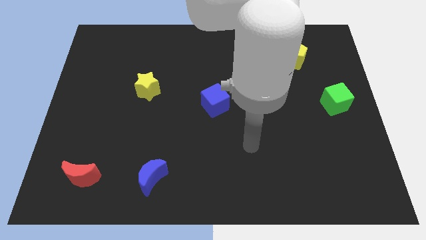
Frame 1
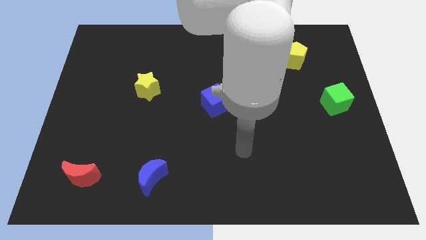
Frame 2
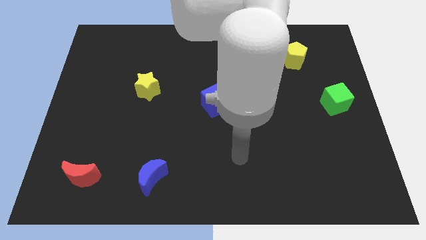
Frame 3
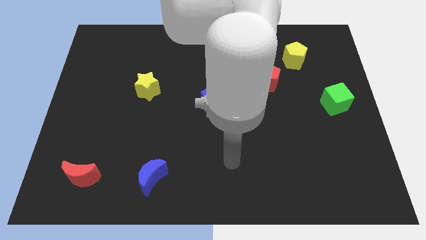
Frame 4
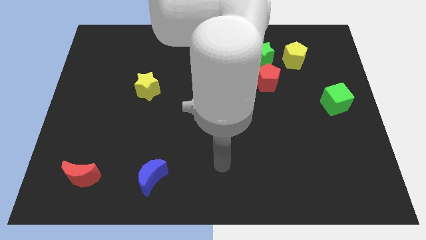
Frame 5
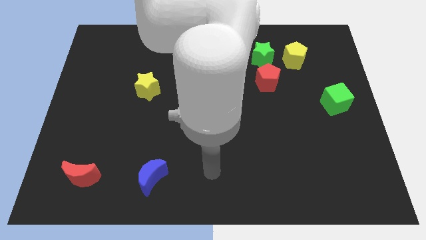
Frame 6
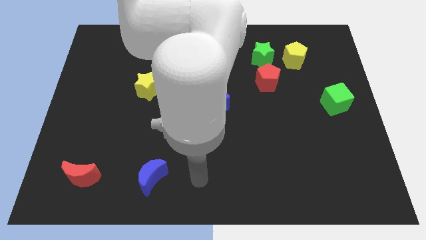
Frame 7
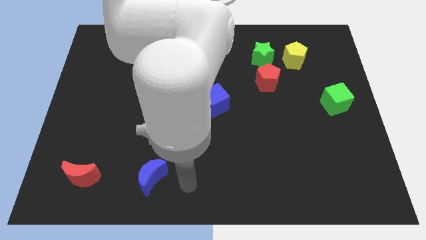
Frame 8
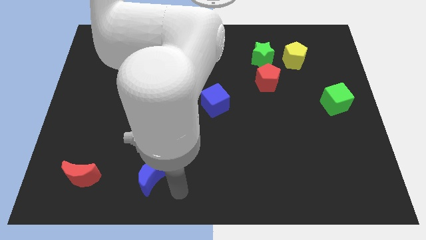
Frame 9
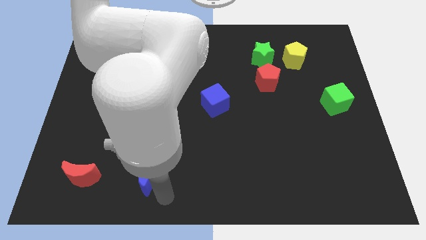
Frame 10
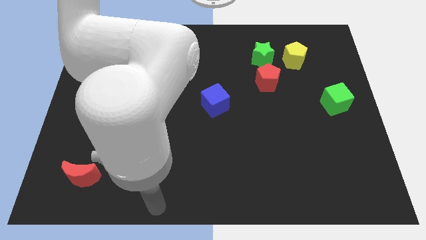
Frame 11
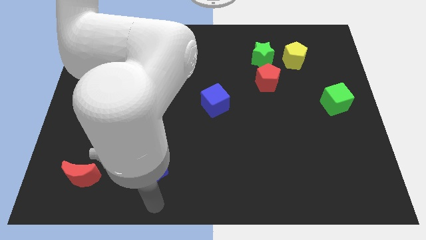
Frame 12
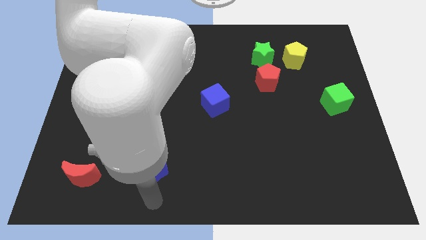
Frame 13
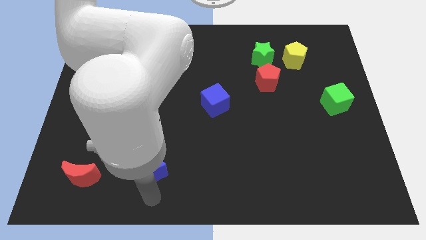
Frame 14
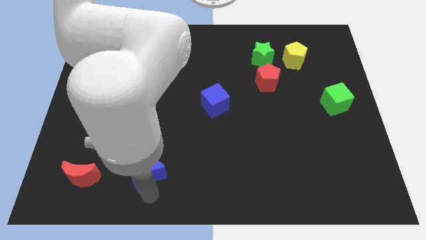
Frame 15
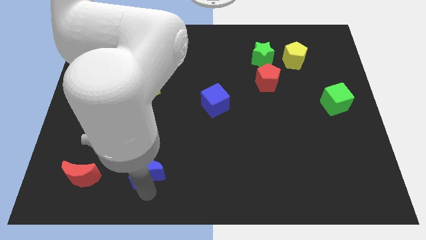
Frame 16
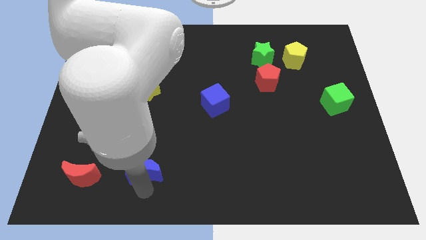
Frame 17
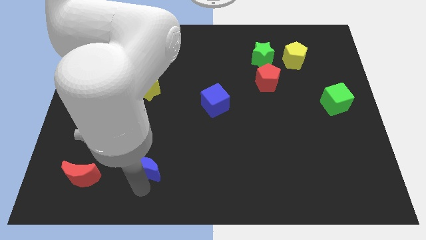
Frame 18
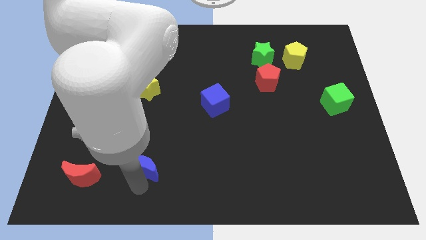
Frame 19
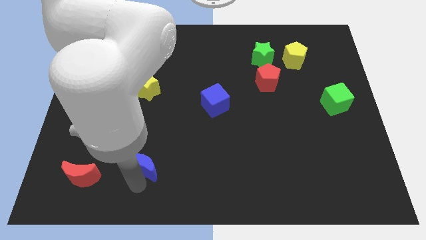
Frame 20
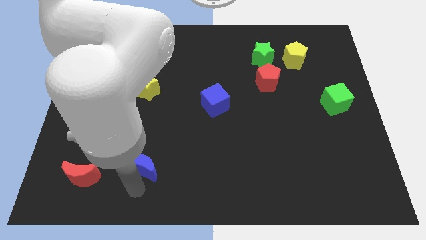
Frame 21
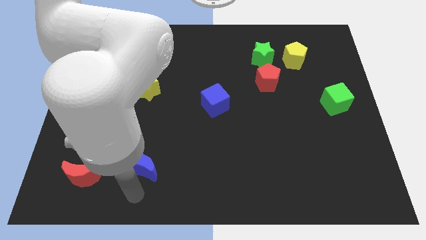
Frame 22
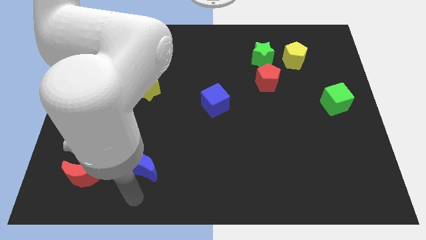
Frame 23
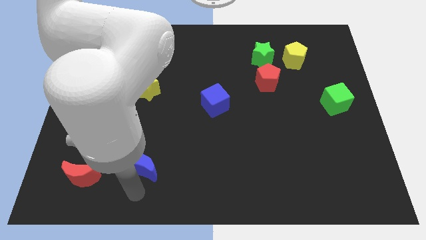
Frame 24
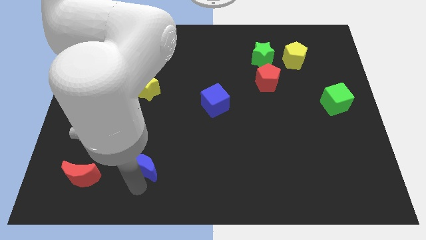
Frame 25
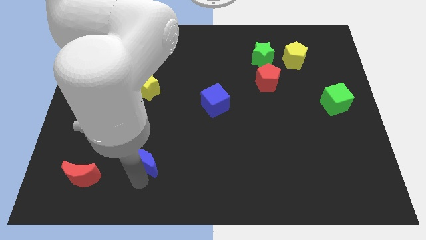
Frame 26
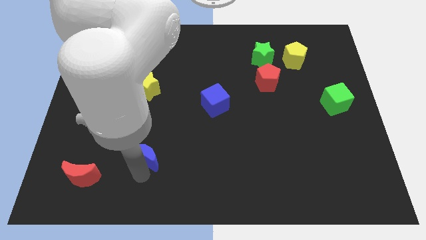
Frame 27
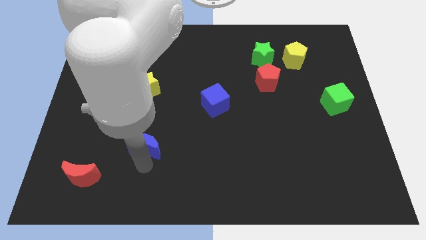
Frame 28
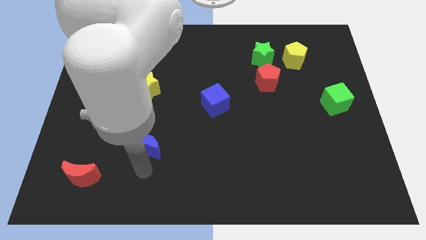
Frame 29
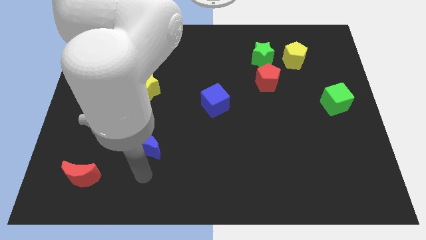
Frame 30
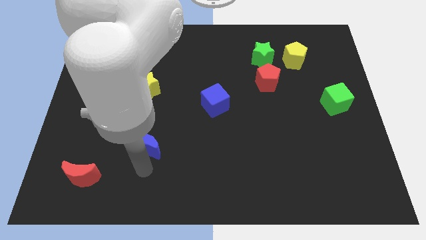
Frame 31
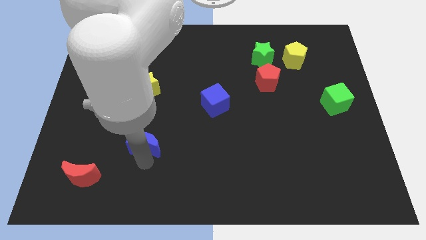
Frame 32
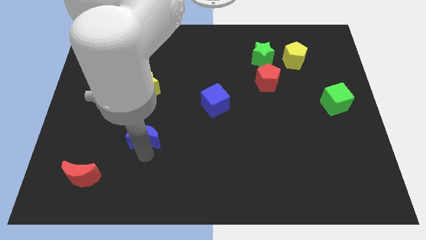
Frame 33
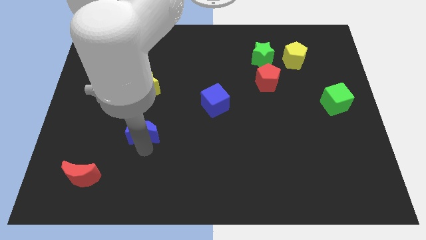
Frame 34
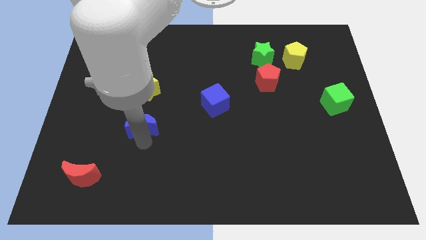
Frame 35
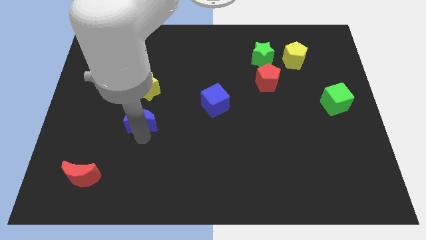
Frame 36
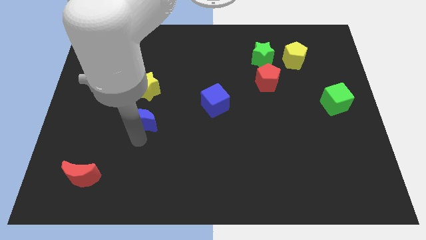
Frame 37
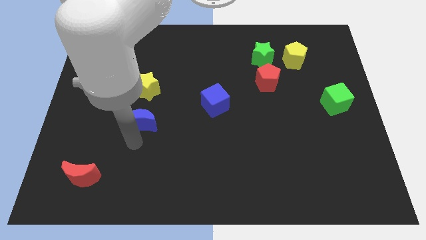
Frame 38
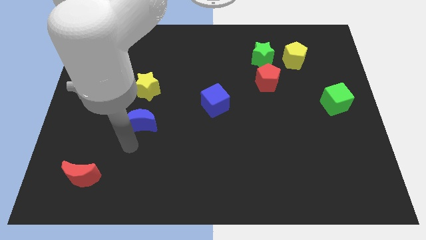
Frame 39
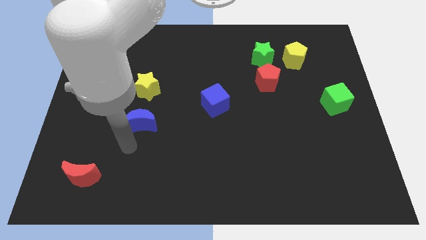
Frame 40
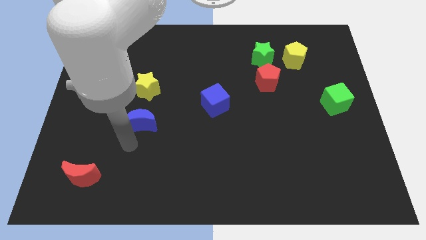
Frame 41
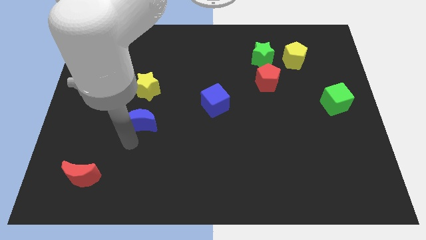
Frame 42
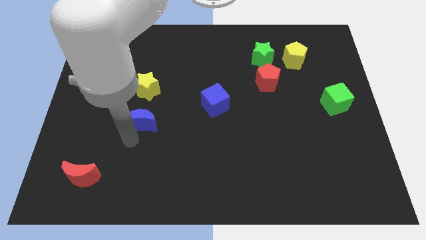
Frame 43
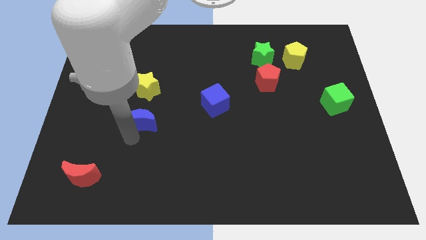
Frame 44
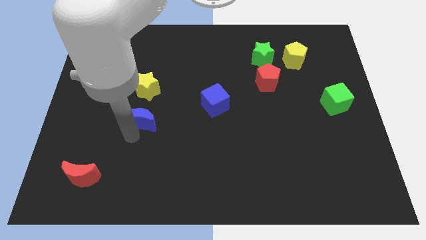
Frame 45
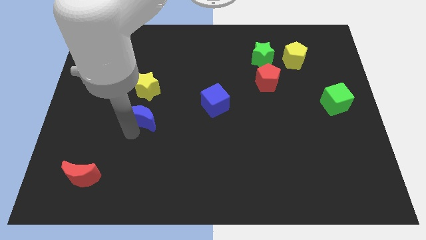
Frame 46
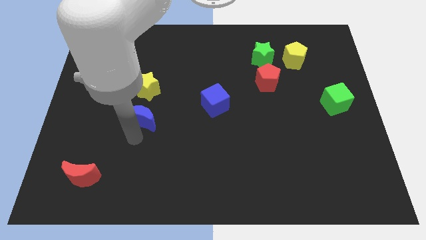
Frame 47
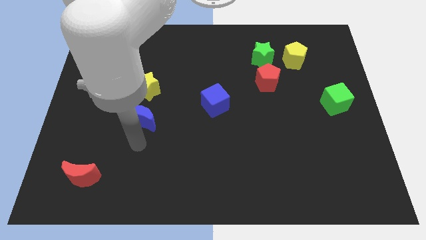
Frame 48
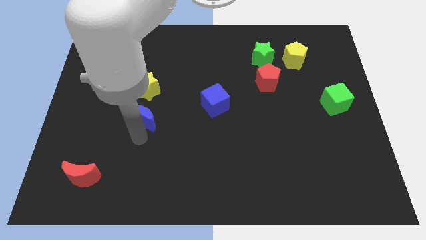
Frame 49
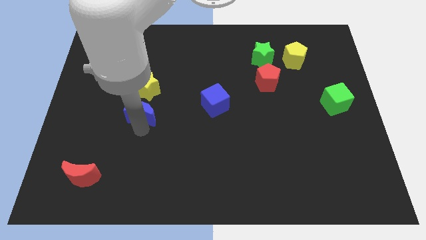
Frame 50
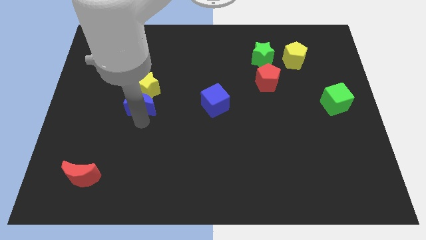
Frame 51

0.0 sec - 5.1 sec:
move the blue moon next to the yellow star

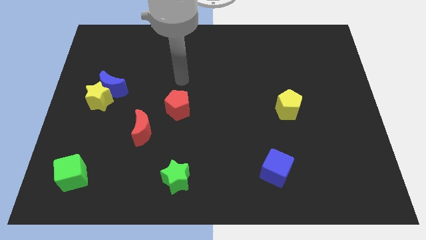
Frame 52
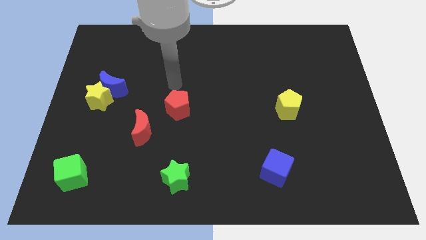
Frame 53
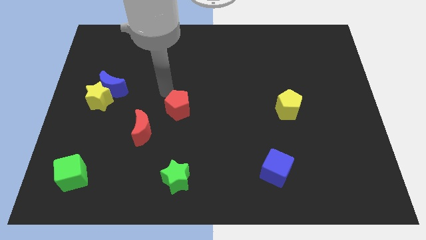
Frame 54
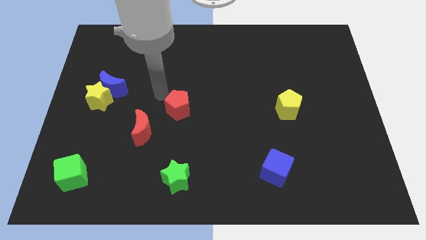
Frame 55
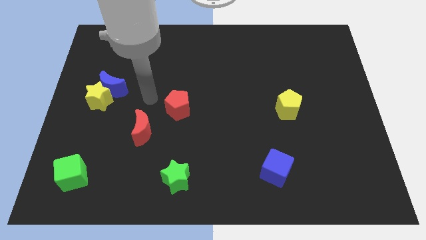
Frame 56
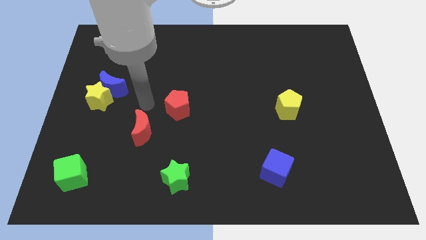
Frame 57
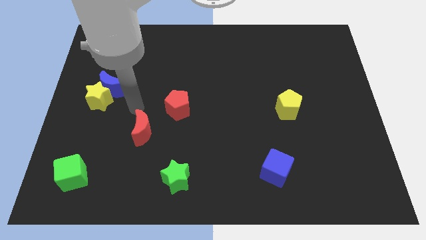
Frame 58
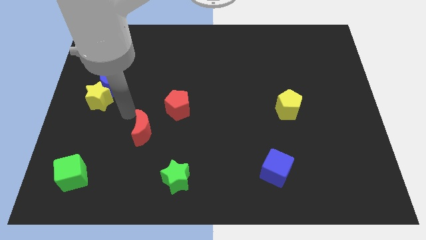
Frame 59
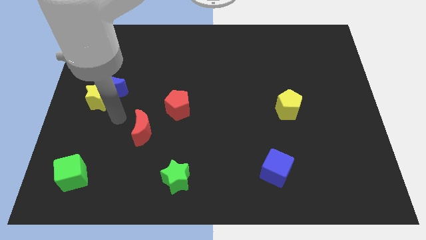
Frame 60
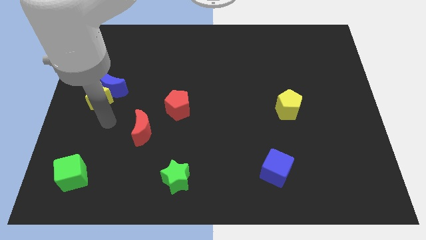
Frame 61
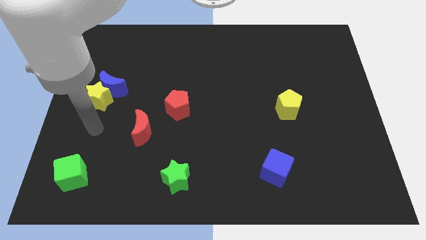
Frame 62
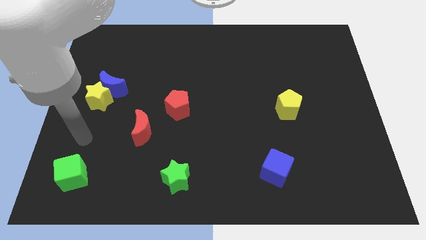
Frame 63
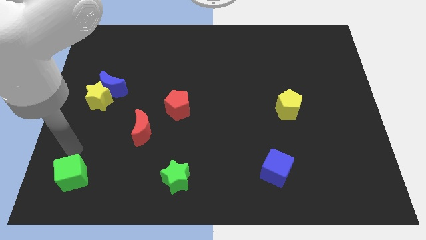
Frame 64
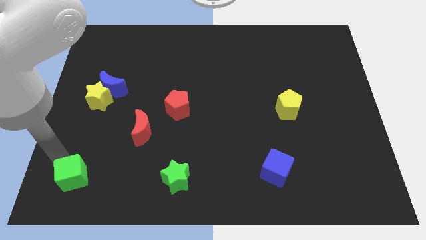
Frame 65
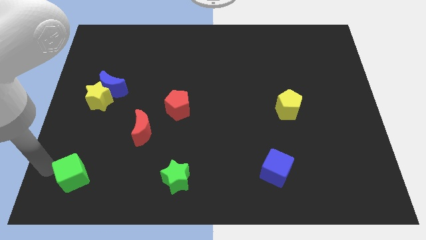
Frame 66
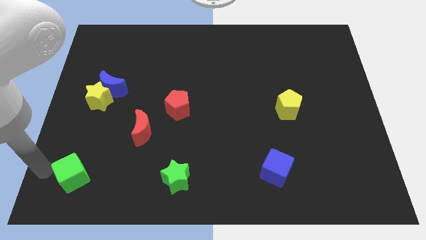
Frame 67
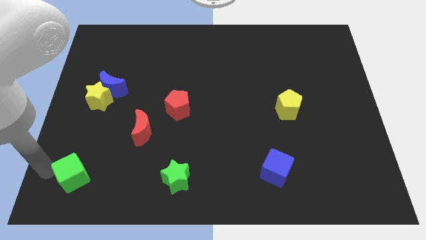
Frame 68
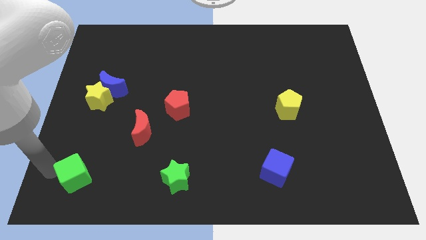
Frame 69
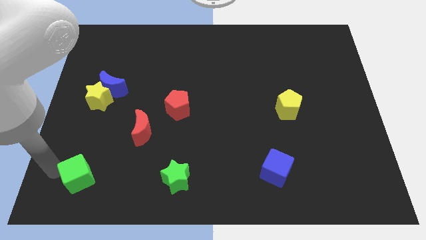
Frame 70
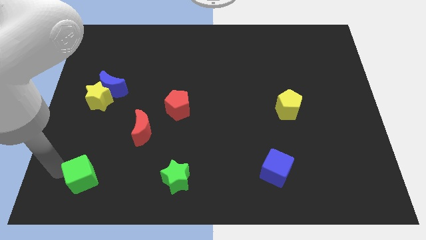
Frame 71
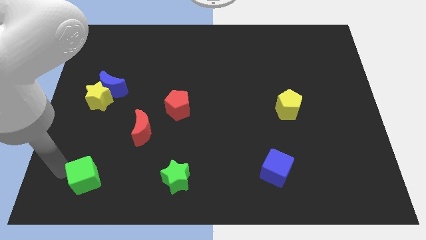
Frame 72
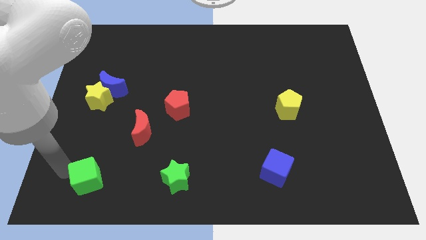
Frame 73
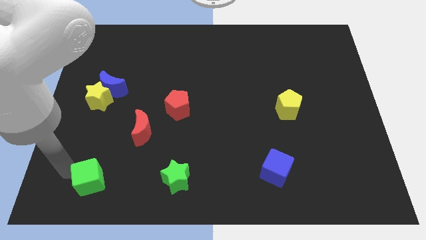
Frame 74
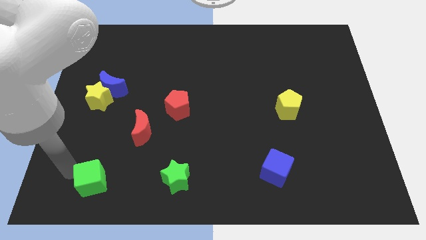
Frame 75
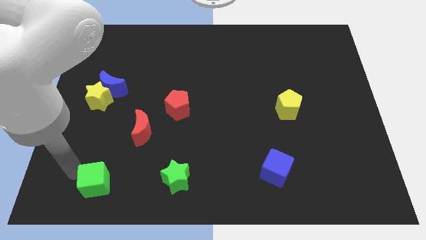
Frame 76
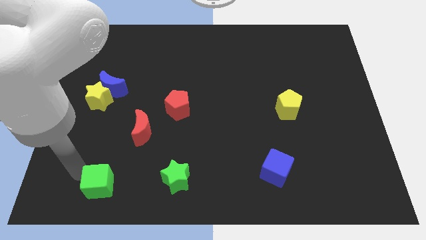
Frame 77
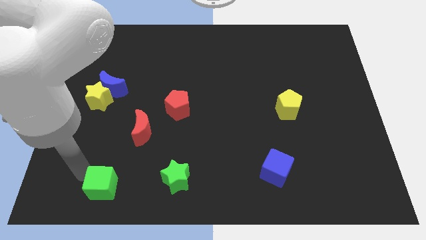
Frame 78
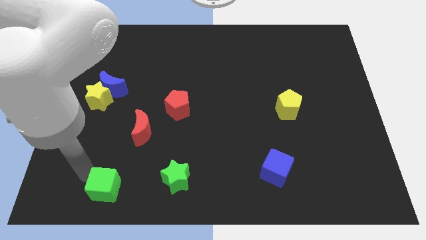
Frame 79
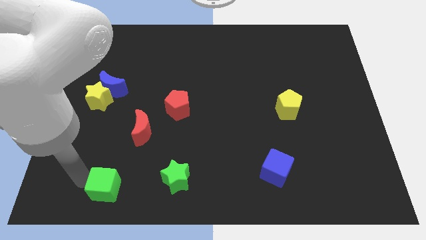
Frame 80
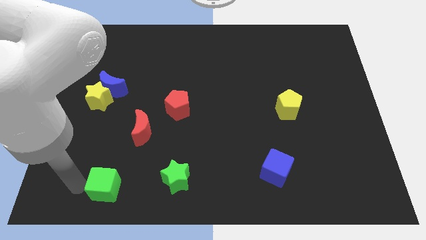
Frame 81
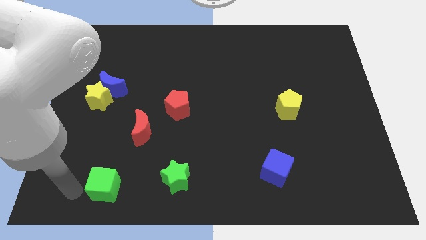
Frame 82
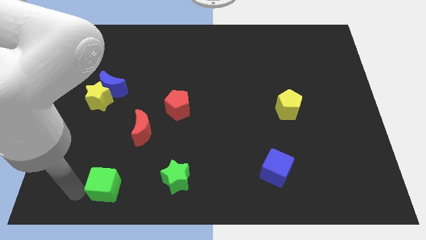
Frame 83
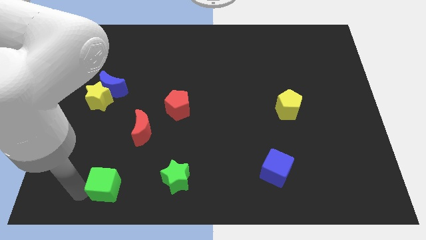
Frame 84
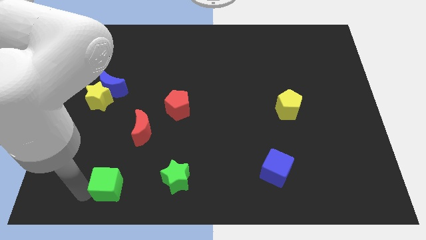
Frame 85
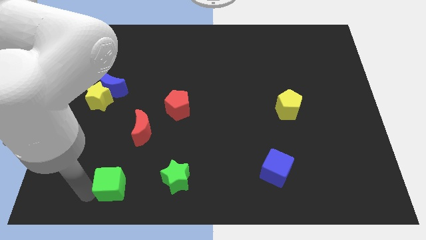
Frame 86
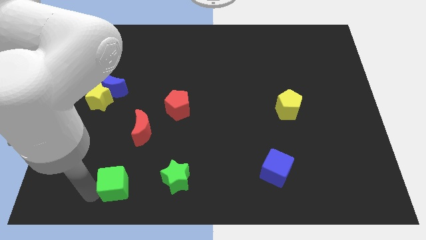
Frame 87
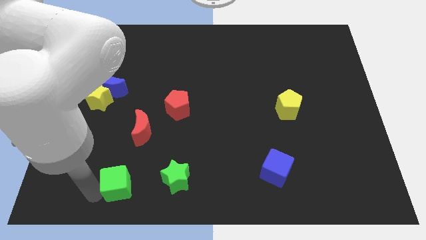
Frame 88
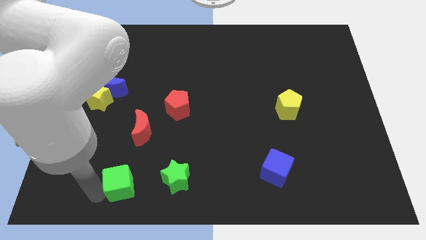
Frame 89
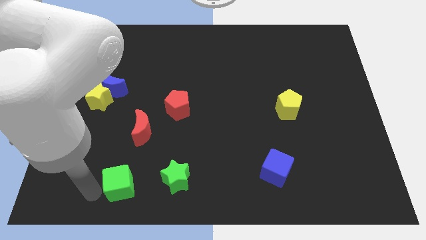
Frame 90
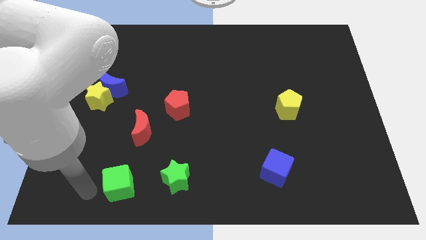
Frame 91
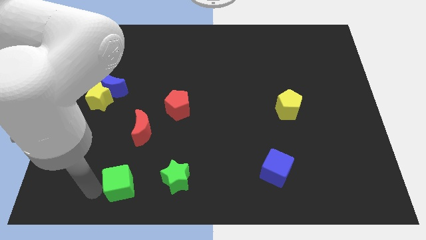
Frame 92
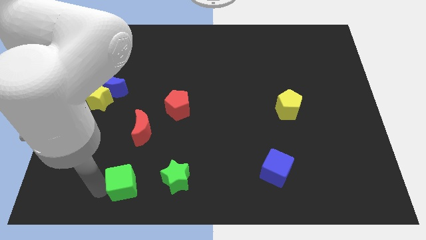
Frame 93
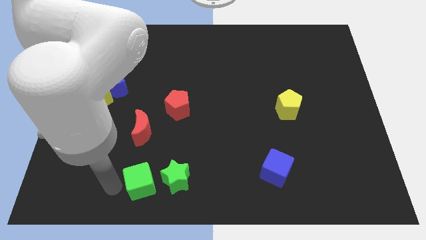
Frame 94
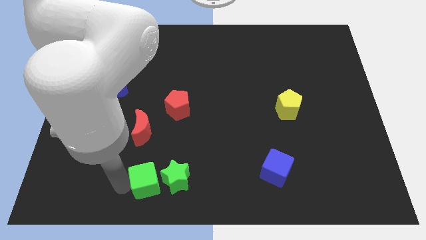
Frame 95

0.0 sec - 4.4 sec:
put the green cube to the green star
